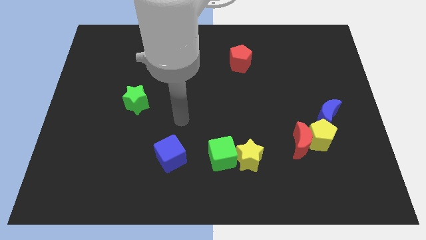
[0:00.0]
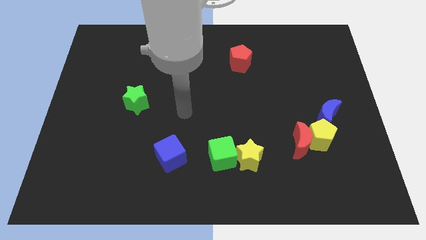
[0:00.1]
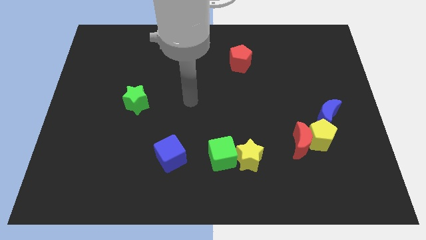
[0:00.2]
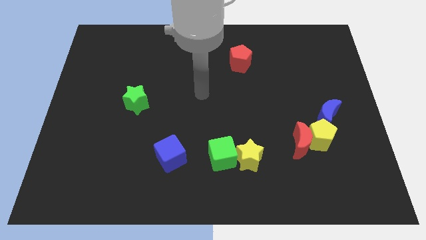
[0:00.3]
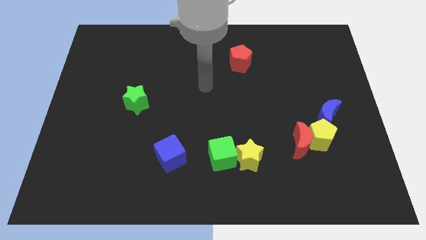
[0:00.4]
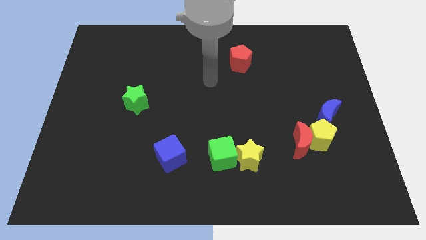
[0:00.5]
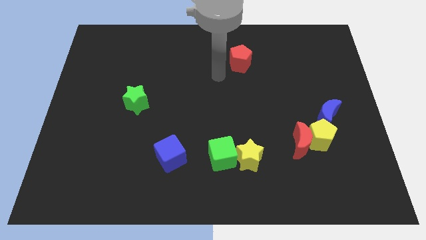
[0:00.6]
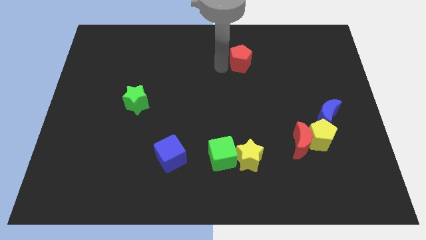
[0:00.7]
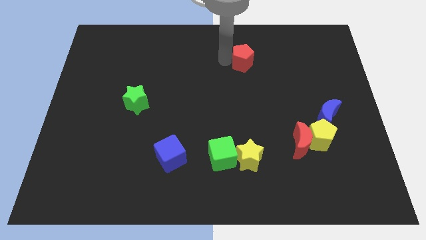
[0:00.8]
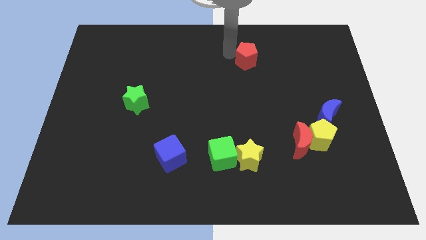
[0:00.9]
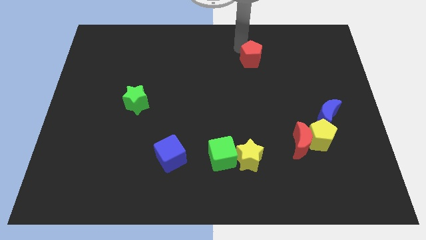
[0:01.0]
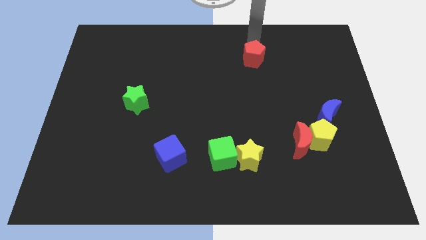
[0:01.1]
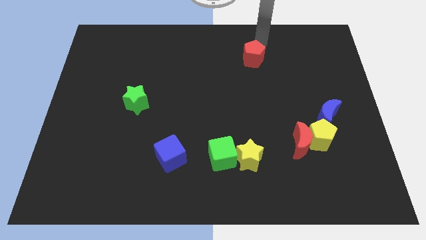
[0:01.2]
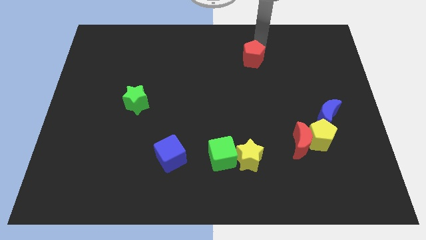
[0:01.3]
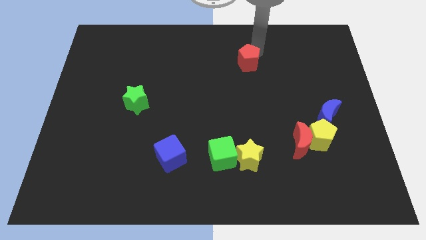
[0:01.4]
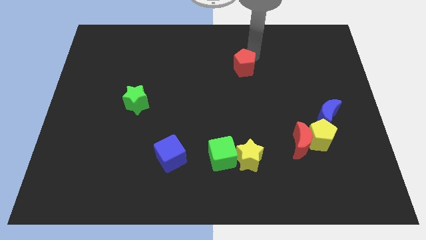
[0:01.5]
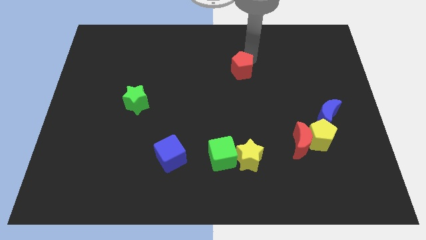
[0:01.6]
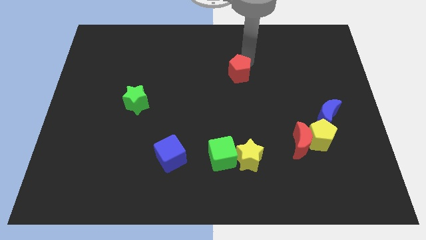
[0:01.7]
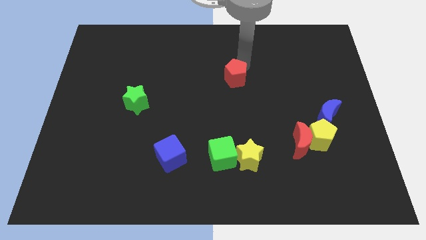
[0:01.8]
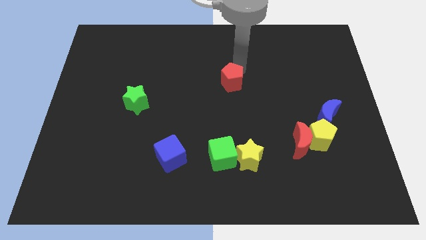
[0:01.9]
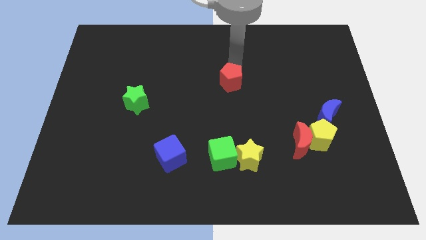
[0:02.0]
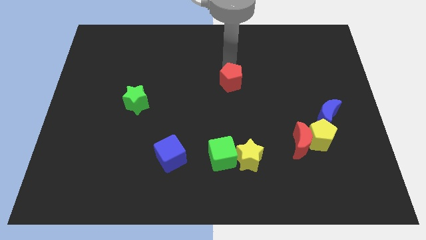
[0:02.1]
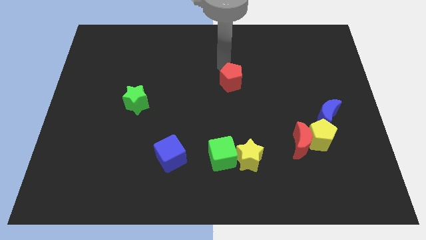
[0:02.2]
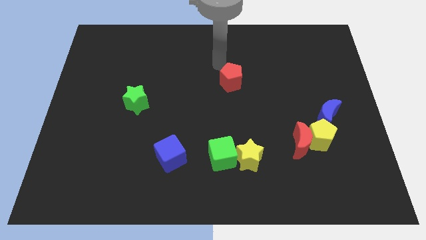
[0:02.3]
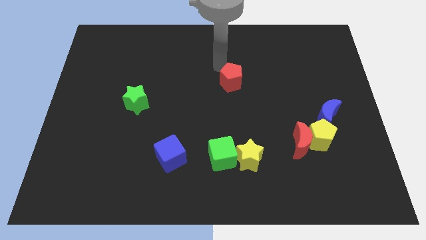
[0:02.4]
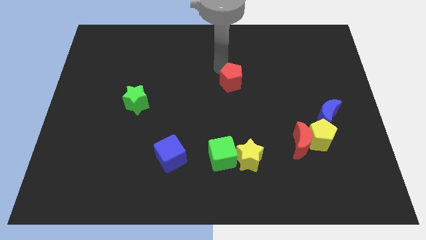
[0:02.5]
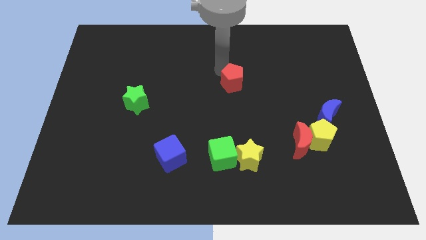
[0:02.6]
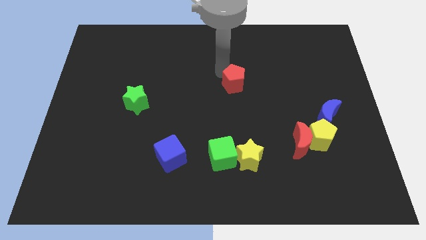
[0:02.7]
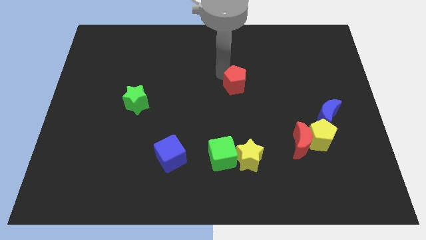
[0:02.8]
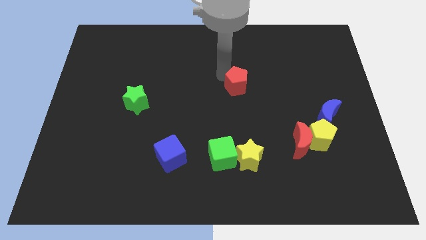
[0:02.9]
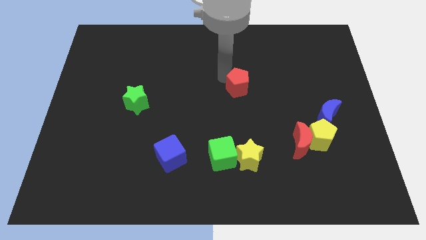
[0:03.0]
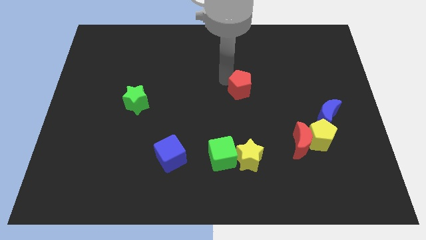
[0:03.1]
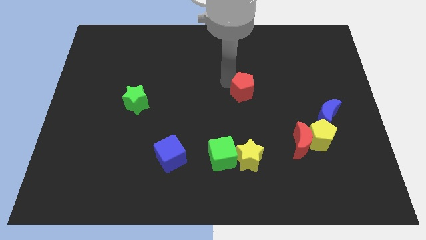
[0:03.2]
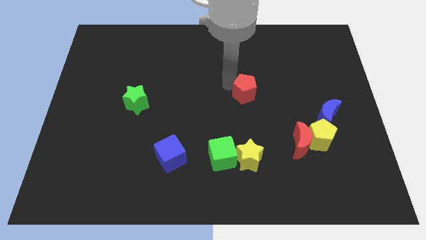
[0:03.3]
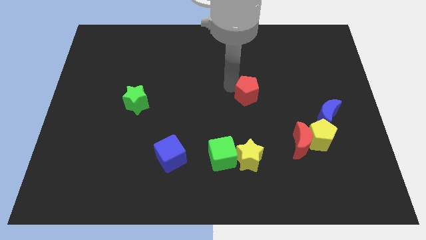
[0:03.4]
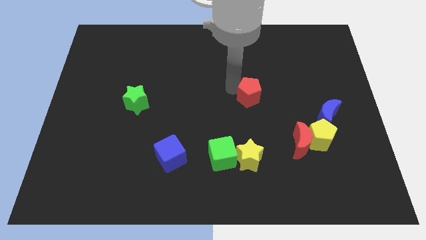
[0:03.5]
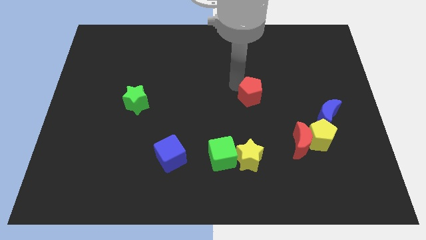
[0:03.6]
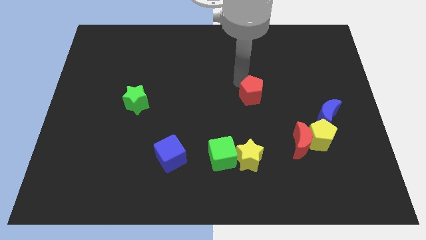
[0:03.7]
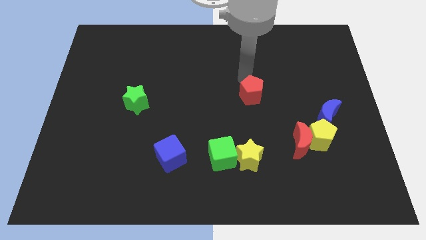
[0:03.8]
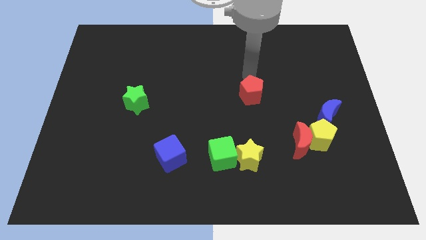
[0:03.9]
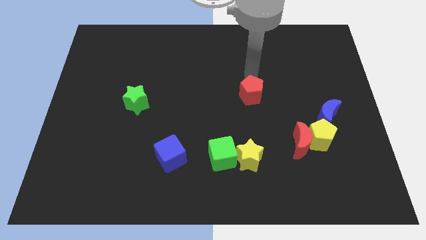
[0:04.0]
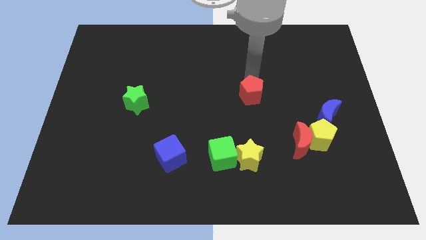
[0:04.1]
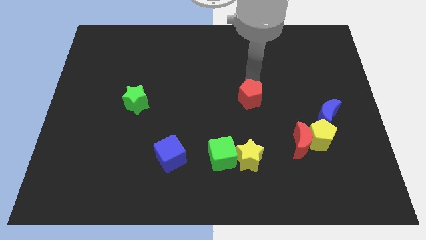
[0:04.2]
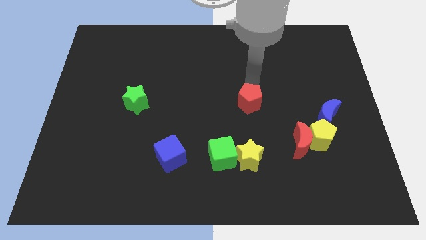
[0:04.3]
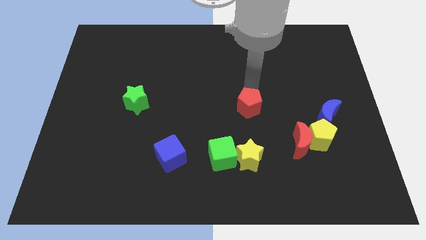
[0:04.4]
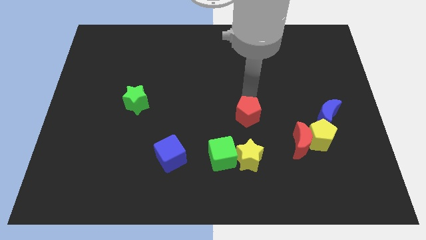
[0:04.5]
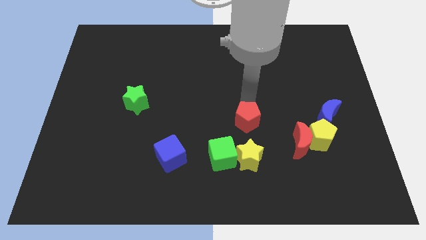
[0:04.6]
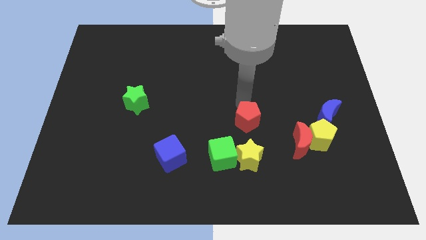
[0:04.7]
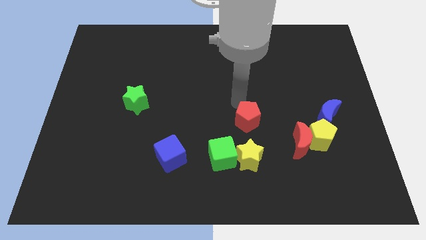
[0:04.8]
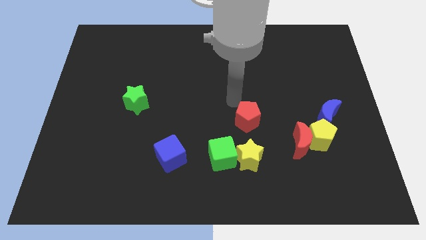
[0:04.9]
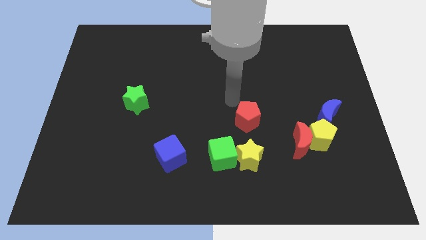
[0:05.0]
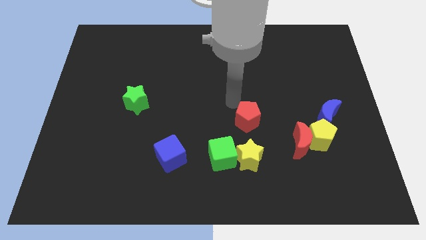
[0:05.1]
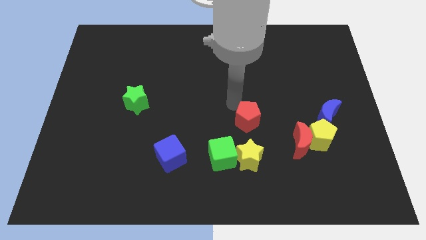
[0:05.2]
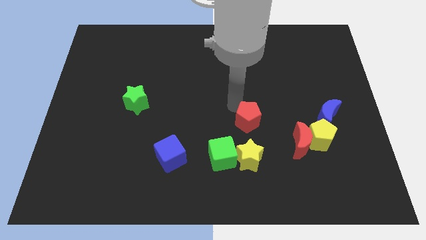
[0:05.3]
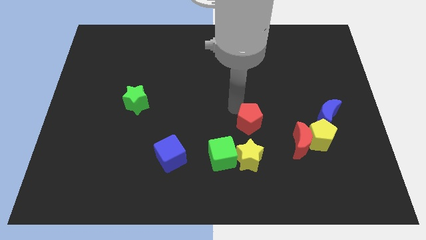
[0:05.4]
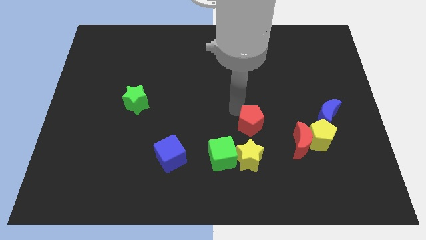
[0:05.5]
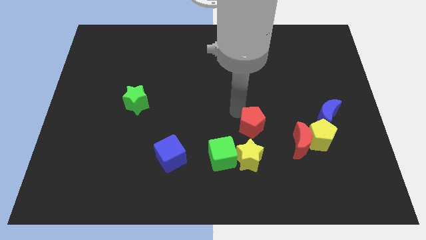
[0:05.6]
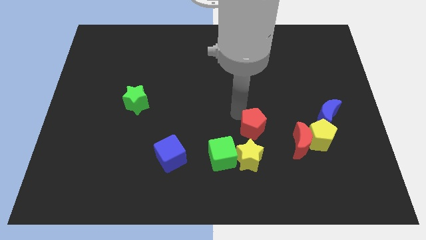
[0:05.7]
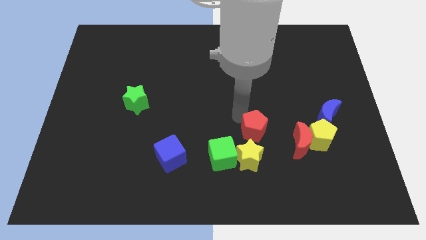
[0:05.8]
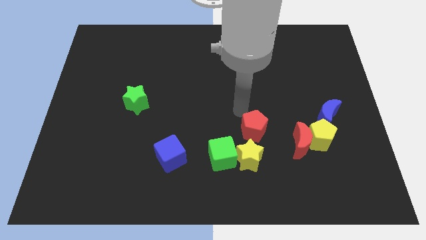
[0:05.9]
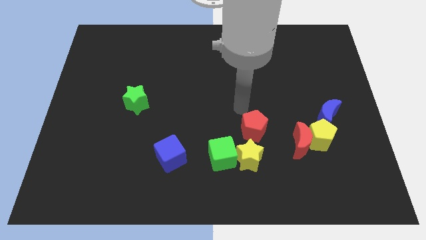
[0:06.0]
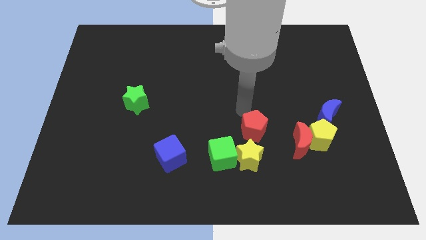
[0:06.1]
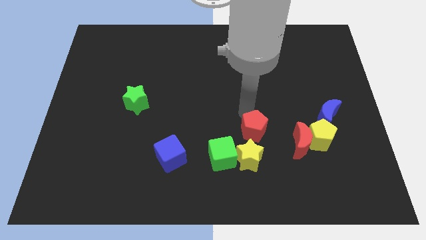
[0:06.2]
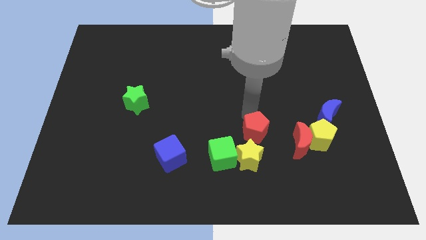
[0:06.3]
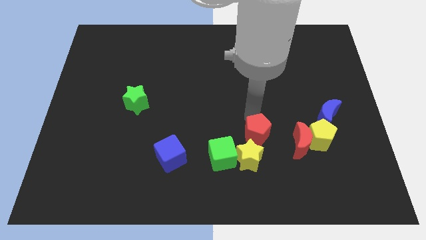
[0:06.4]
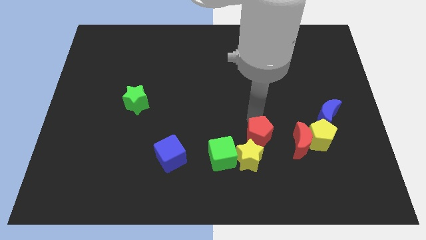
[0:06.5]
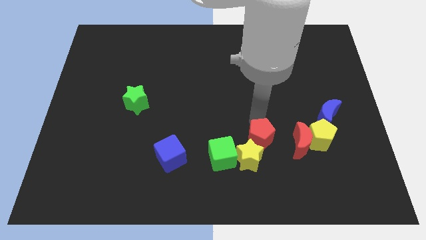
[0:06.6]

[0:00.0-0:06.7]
put the red pentagon right of the green cube
